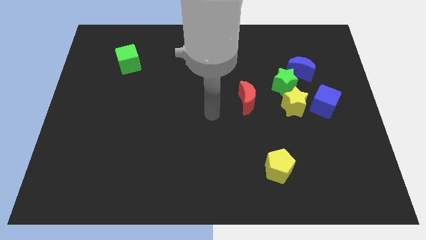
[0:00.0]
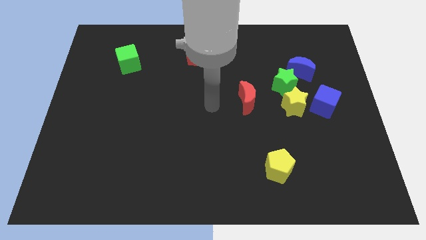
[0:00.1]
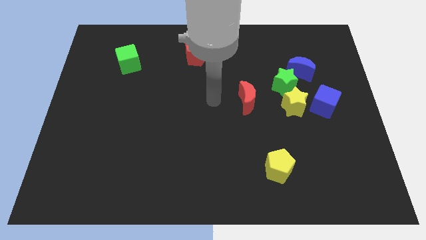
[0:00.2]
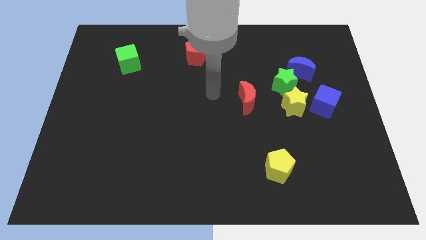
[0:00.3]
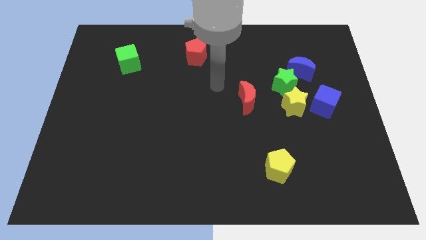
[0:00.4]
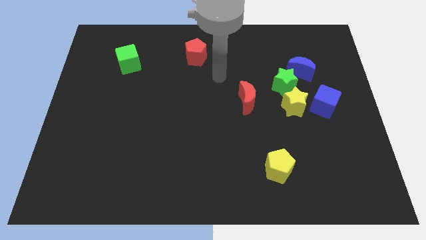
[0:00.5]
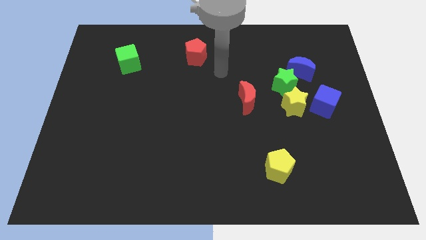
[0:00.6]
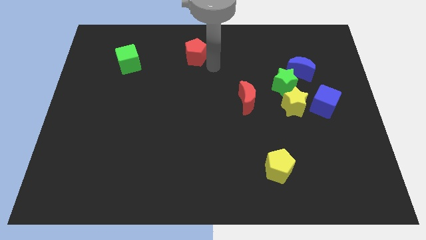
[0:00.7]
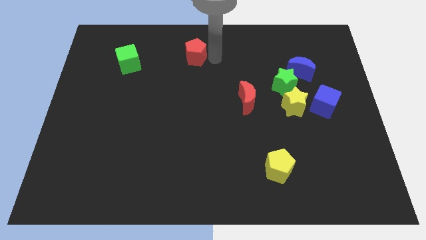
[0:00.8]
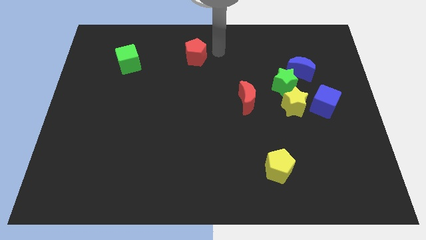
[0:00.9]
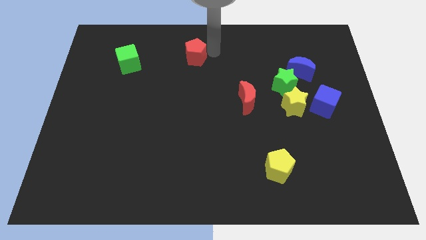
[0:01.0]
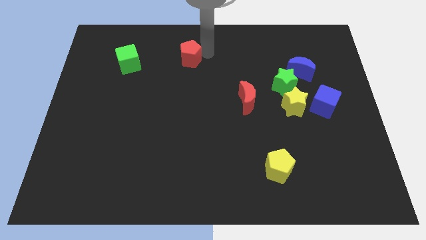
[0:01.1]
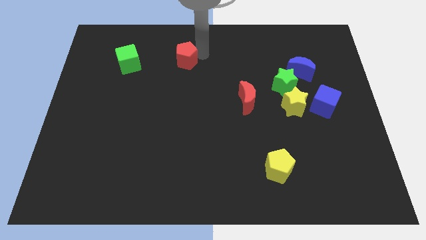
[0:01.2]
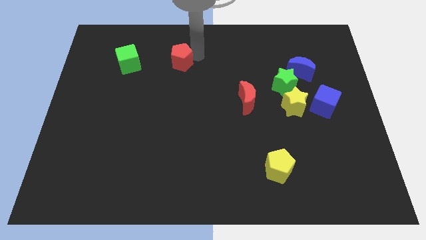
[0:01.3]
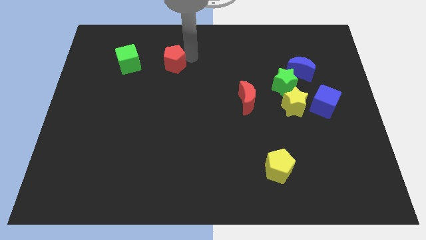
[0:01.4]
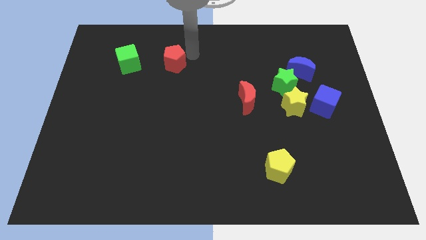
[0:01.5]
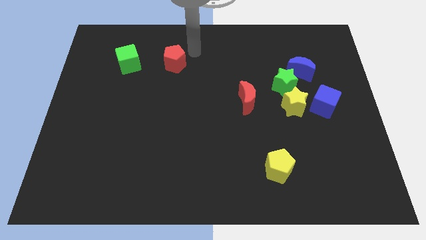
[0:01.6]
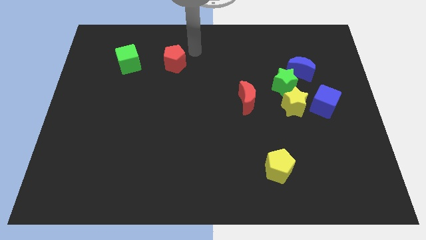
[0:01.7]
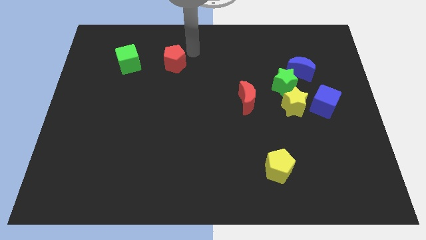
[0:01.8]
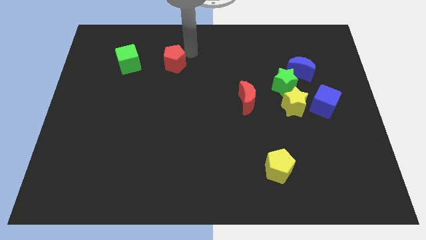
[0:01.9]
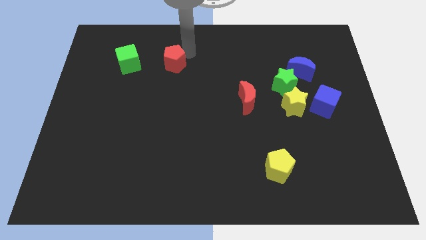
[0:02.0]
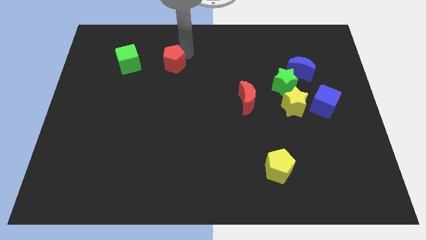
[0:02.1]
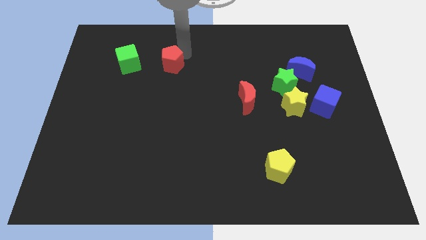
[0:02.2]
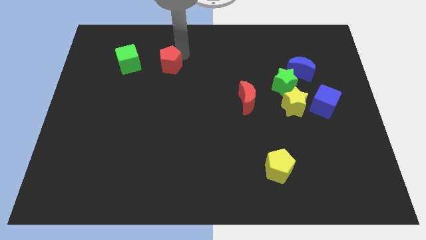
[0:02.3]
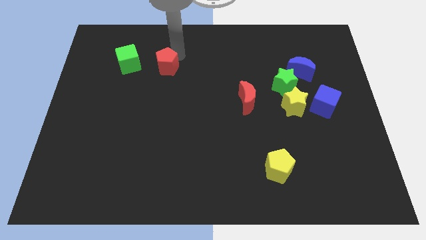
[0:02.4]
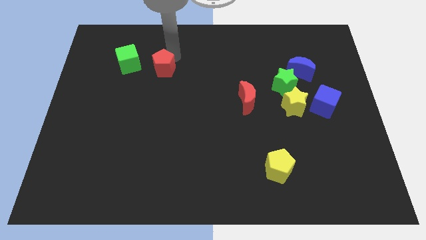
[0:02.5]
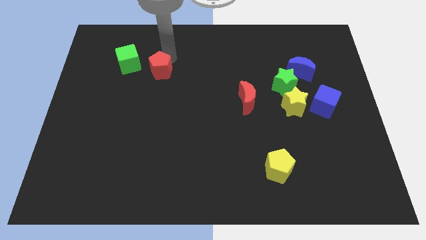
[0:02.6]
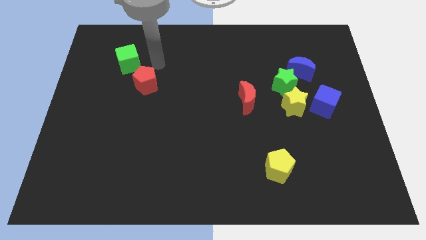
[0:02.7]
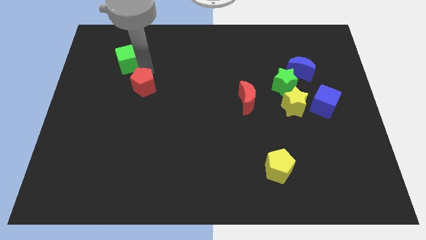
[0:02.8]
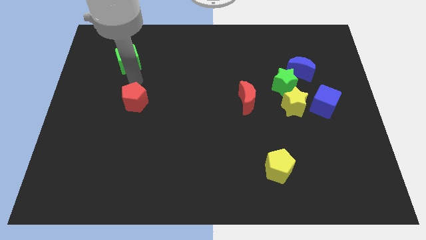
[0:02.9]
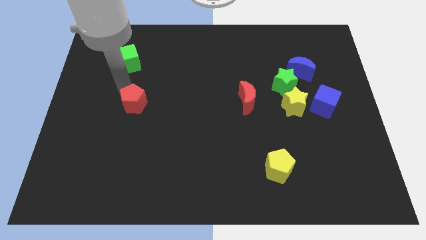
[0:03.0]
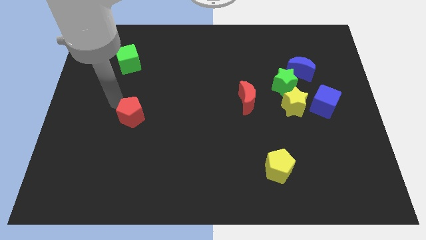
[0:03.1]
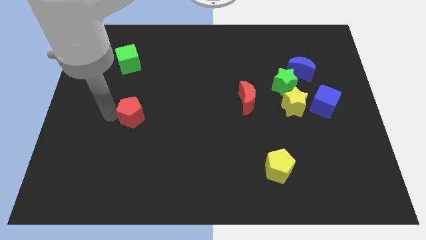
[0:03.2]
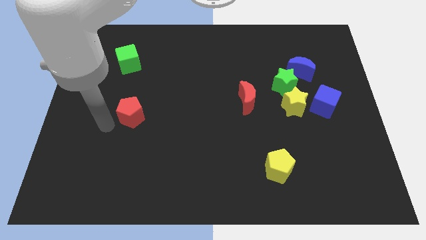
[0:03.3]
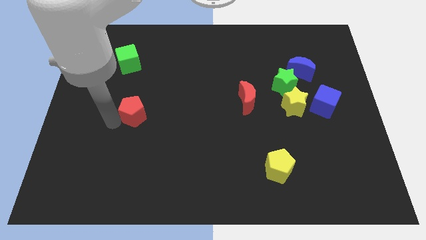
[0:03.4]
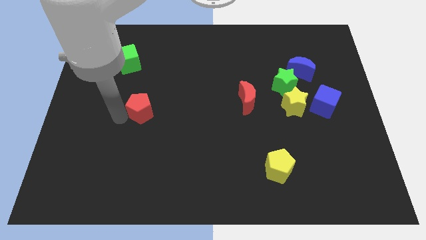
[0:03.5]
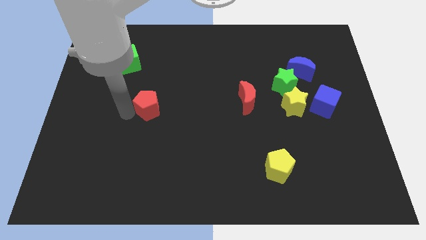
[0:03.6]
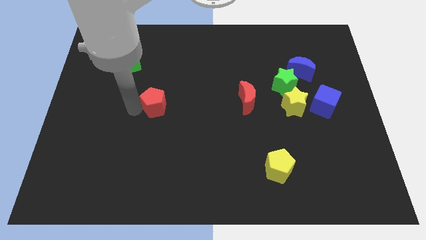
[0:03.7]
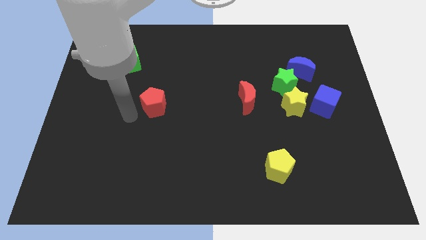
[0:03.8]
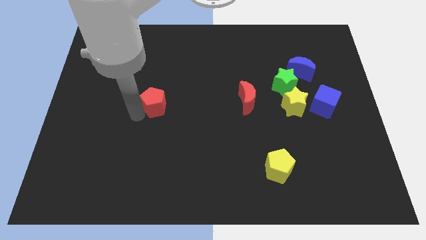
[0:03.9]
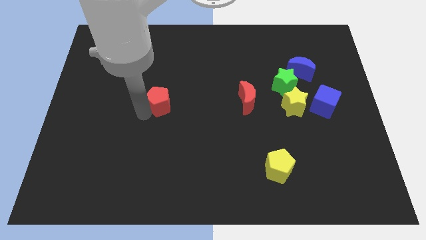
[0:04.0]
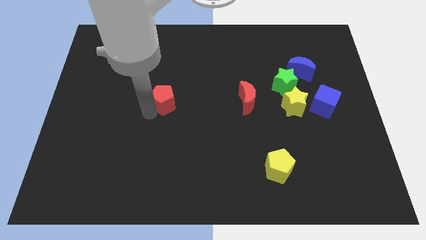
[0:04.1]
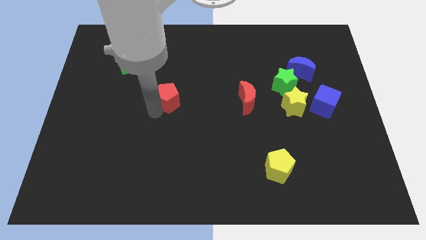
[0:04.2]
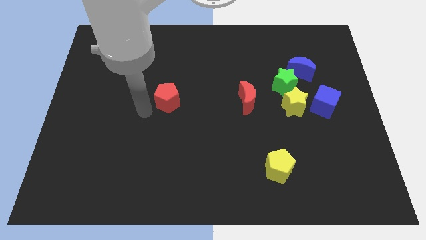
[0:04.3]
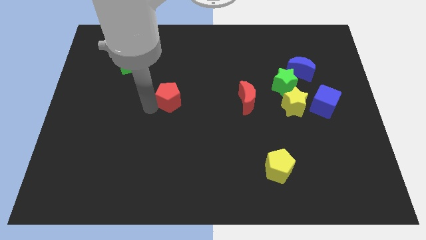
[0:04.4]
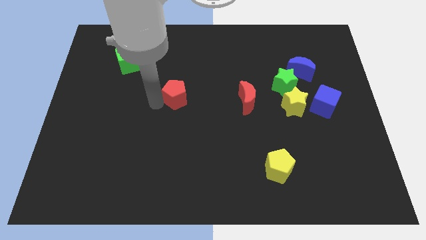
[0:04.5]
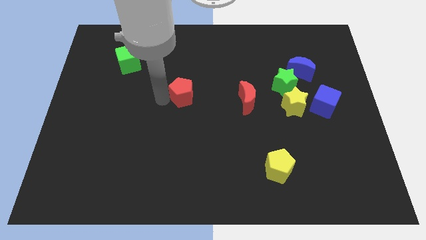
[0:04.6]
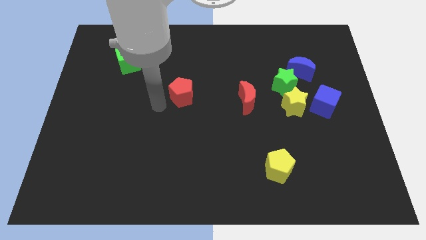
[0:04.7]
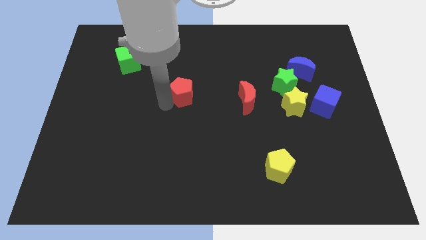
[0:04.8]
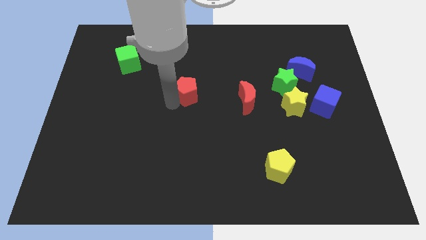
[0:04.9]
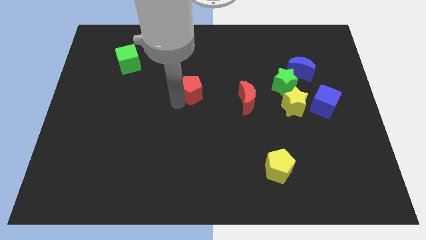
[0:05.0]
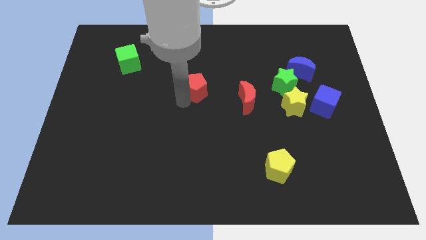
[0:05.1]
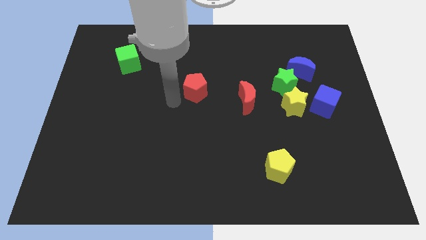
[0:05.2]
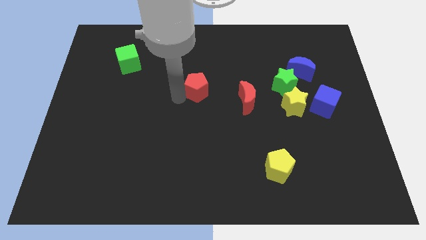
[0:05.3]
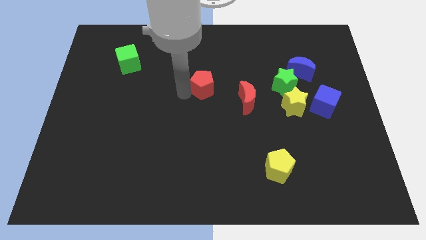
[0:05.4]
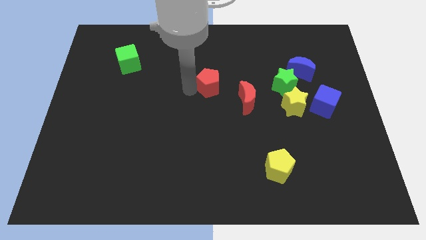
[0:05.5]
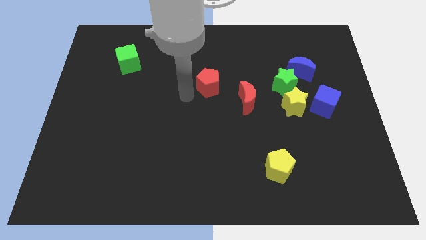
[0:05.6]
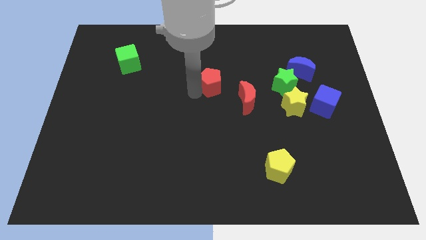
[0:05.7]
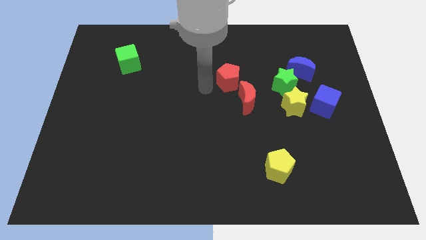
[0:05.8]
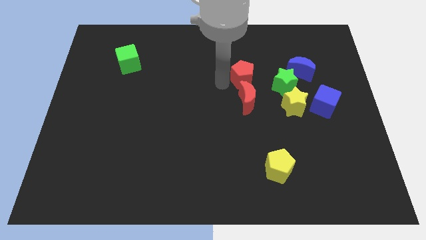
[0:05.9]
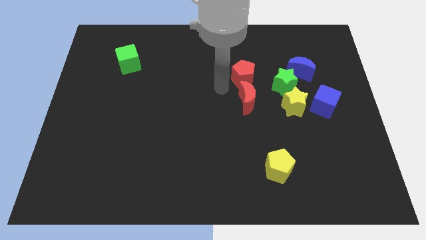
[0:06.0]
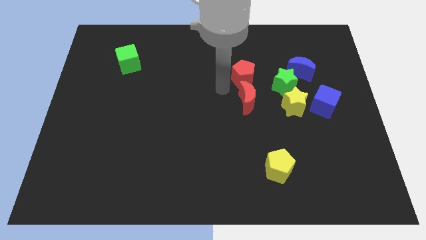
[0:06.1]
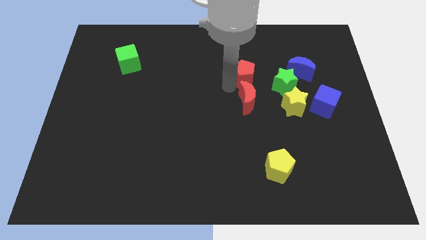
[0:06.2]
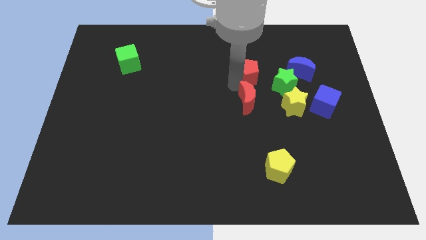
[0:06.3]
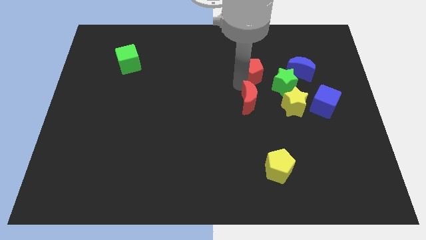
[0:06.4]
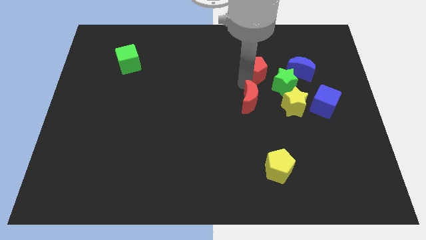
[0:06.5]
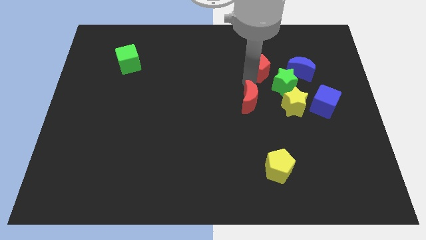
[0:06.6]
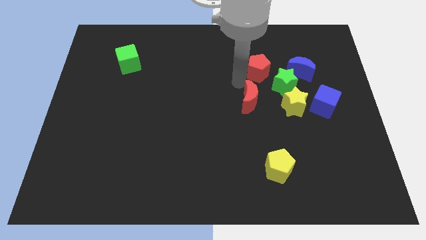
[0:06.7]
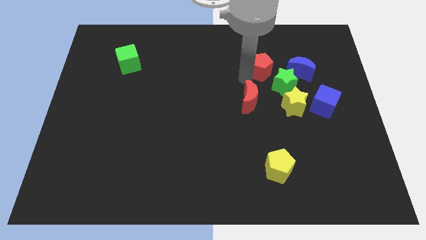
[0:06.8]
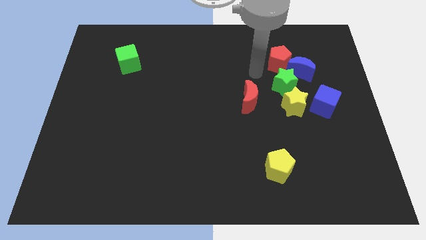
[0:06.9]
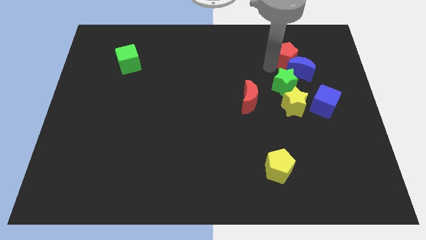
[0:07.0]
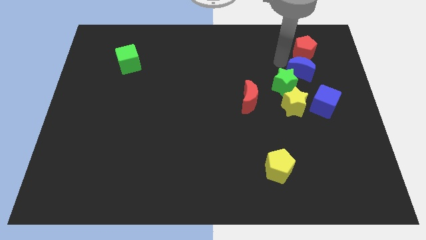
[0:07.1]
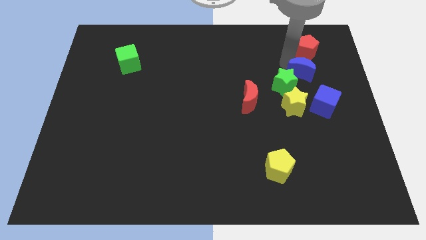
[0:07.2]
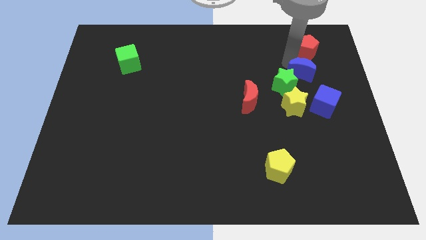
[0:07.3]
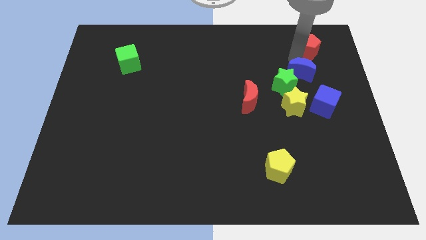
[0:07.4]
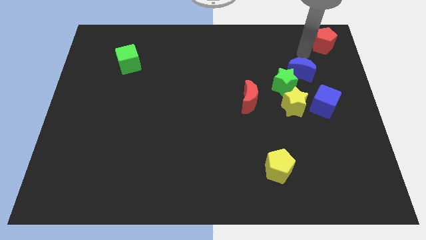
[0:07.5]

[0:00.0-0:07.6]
move the red pentagon to the top right
